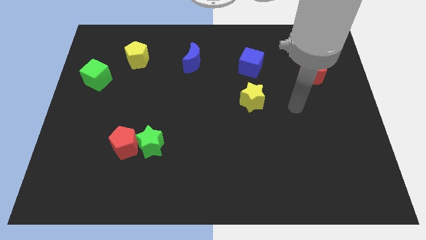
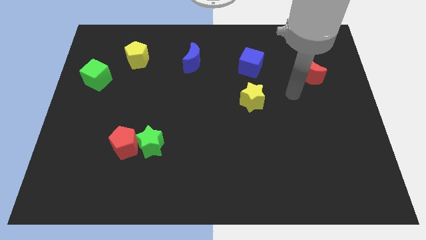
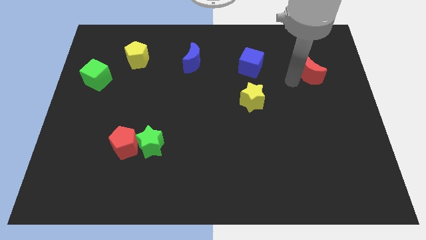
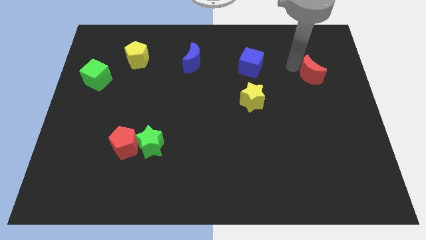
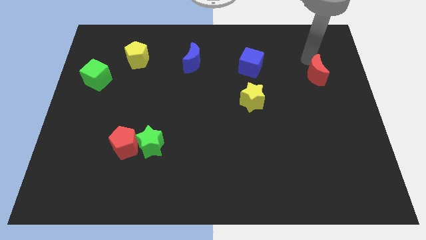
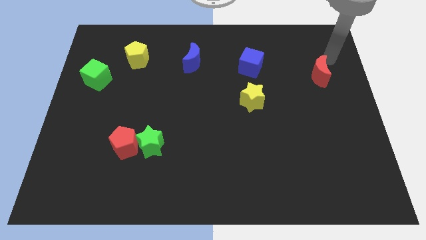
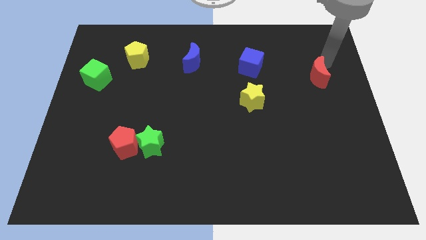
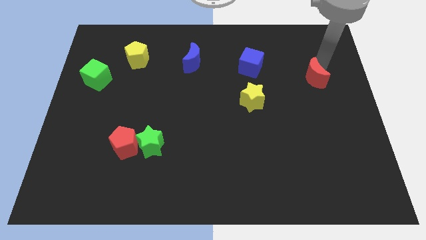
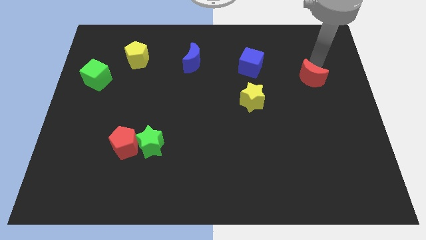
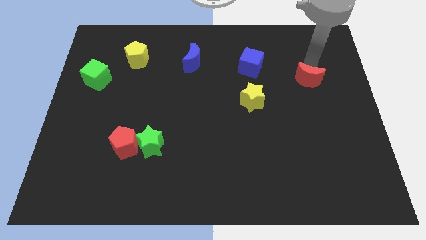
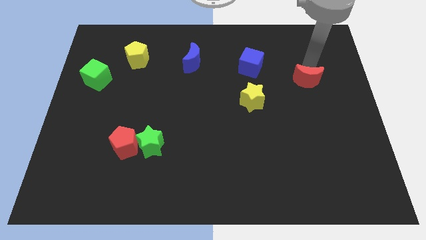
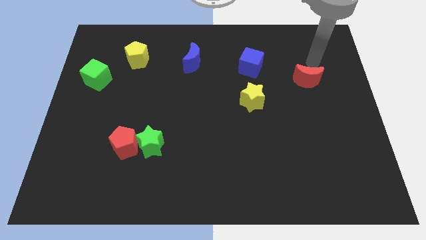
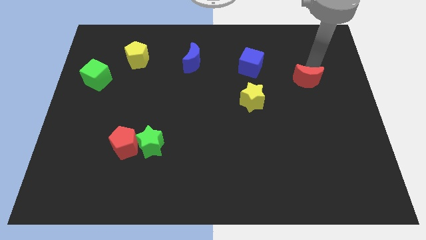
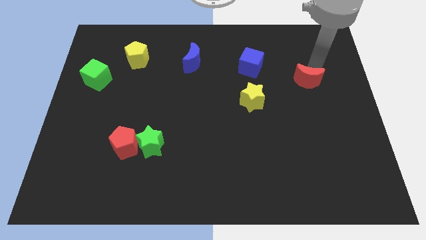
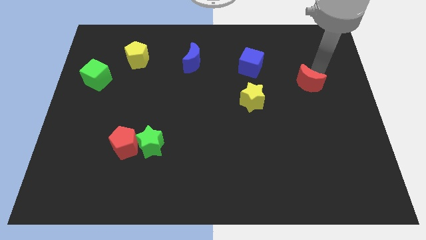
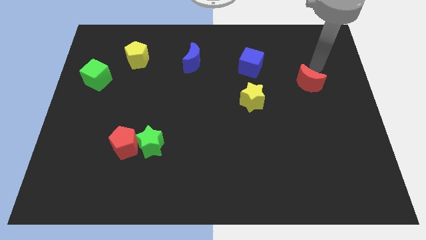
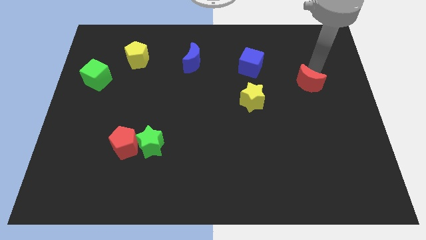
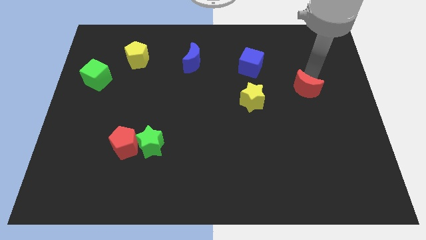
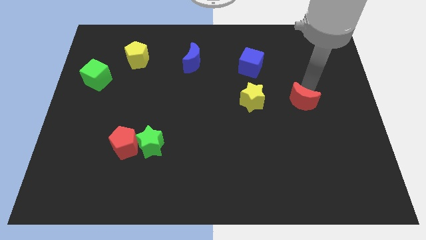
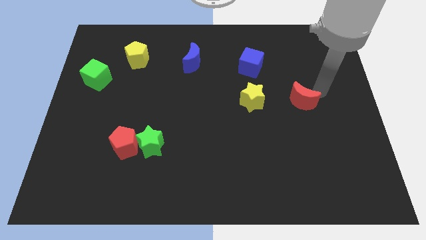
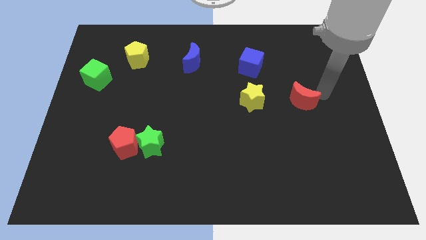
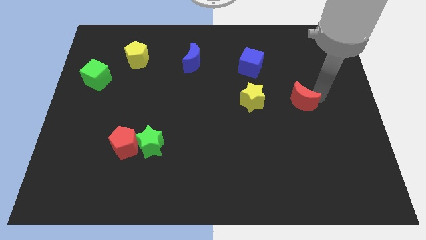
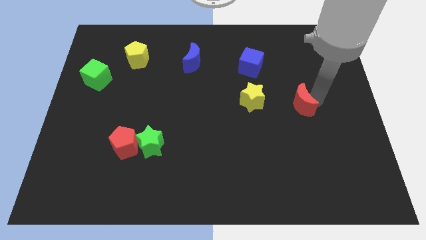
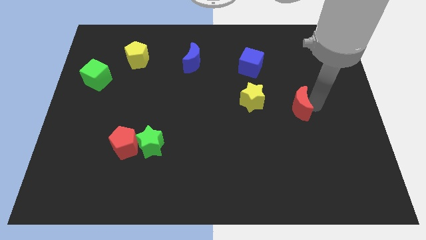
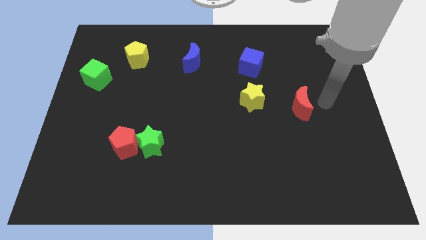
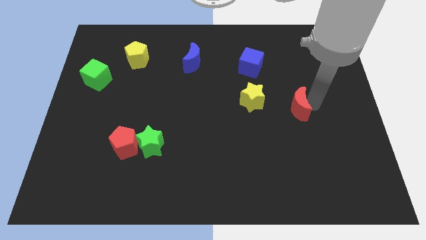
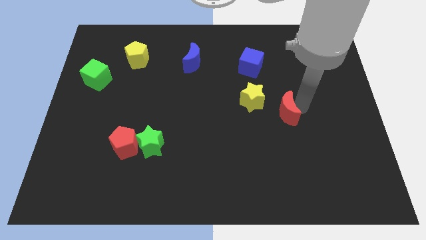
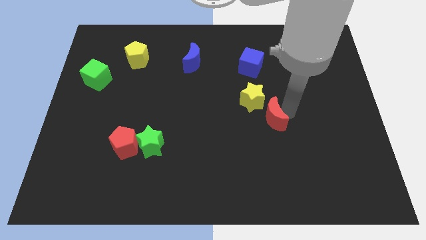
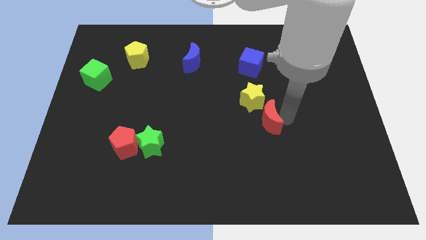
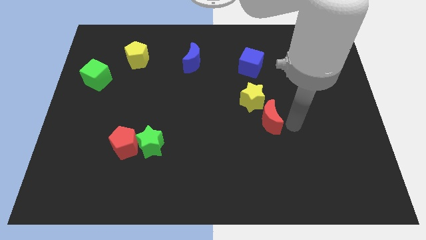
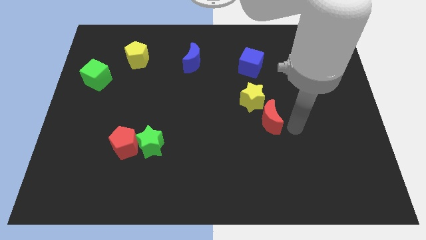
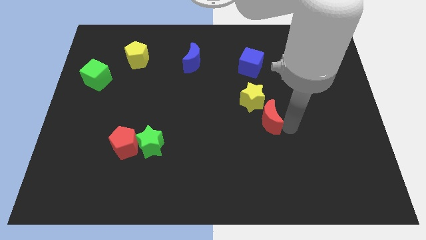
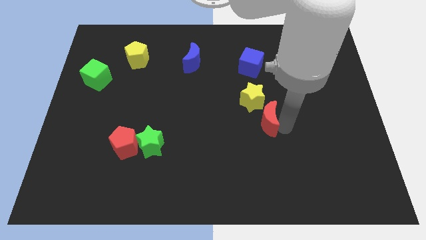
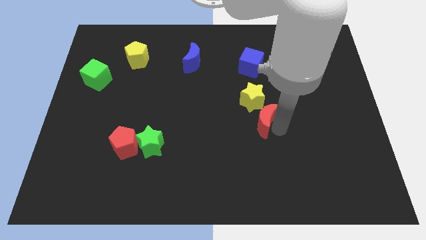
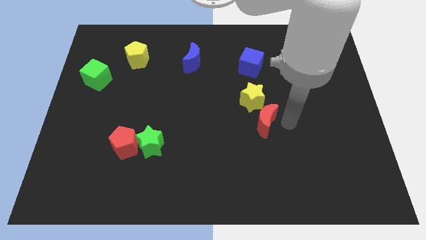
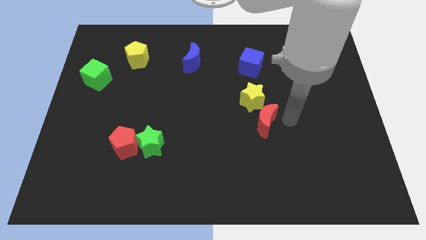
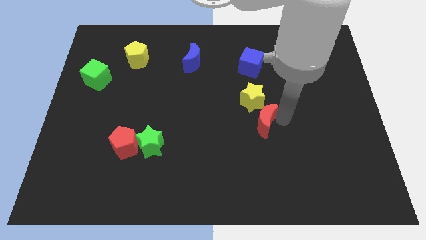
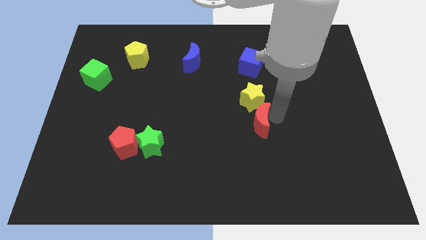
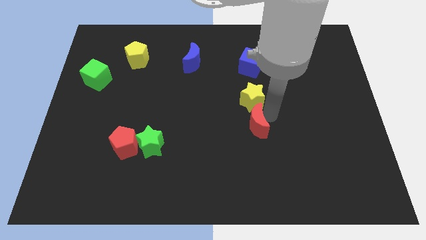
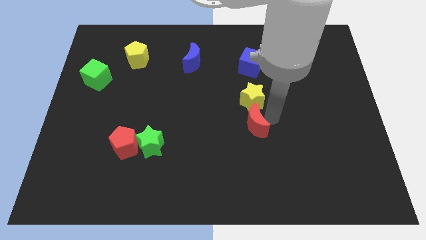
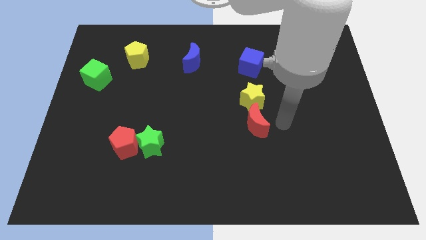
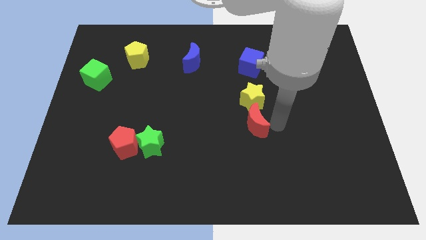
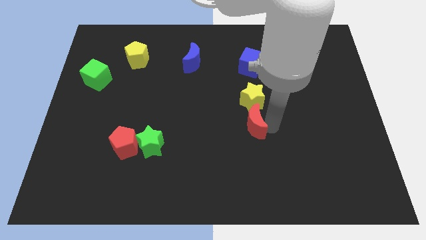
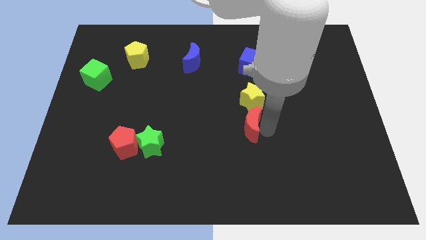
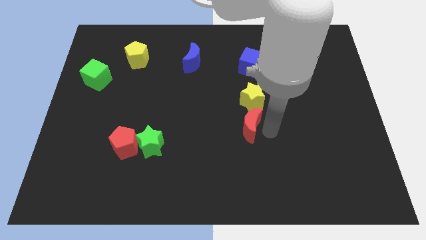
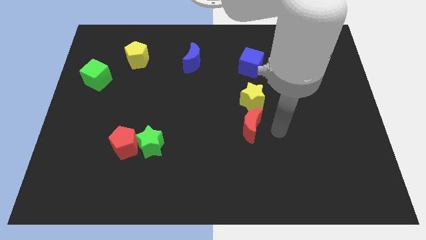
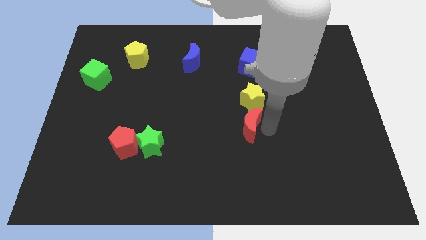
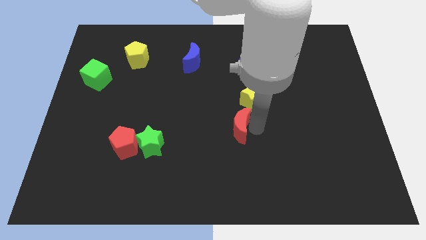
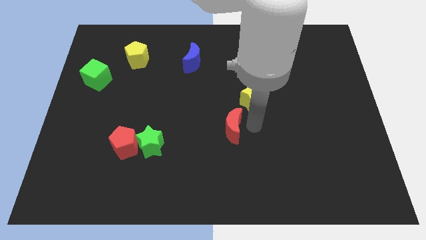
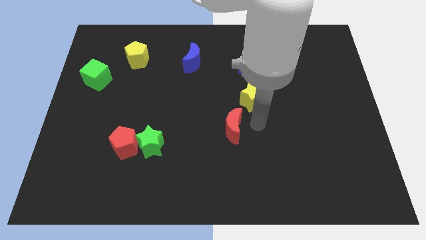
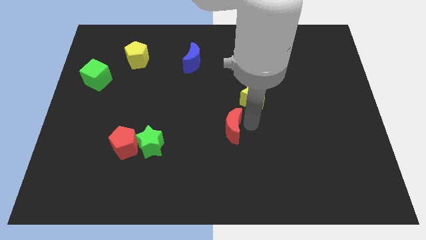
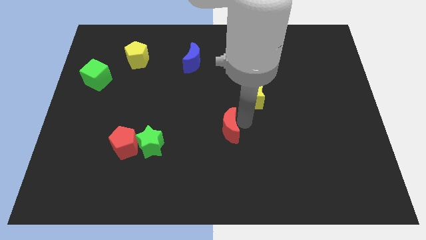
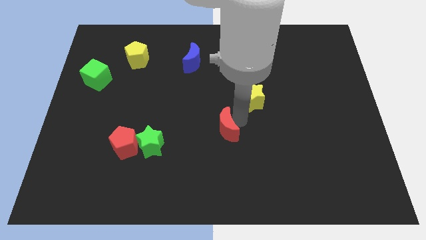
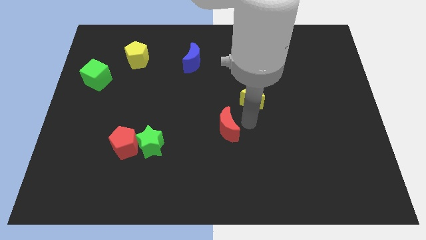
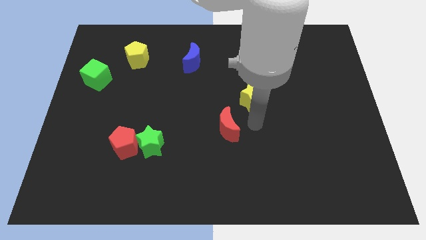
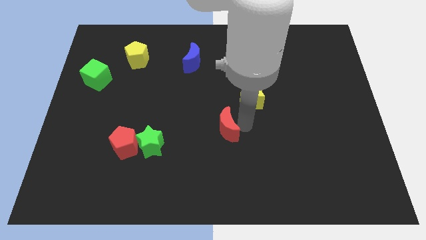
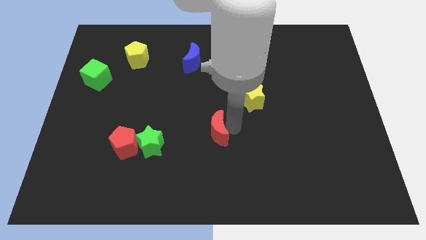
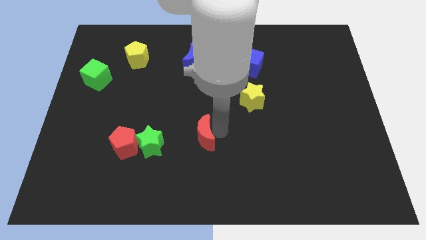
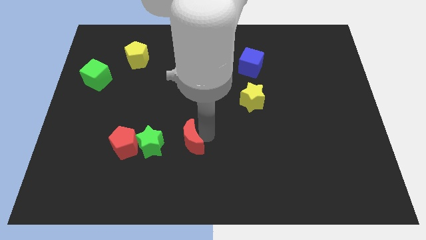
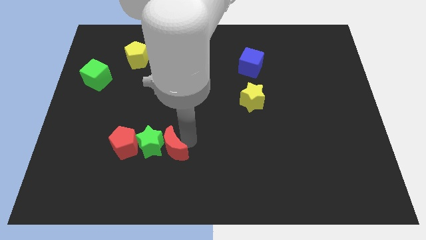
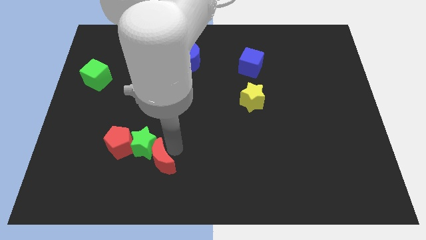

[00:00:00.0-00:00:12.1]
slide the red moon to the bottom right side of the red pentagon
